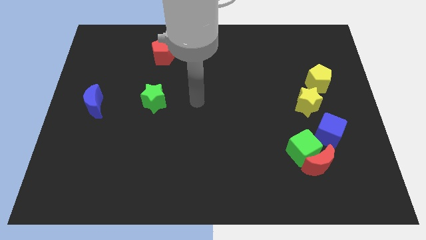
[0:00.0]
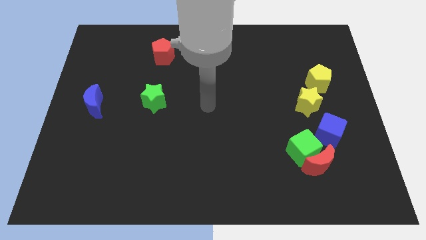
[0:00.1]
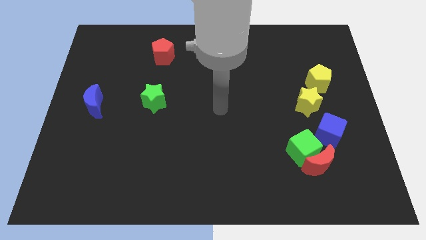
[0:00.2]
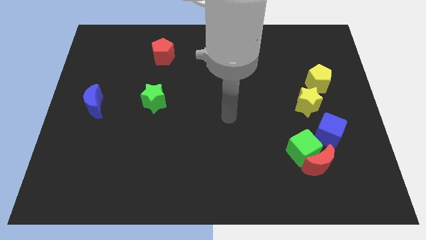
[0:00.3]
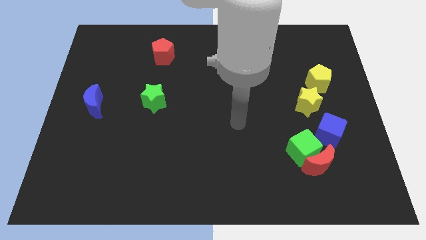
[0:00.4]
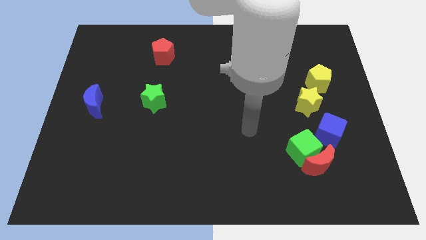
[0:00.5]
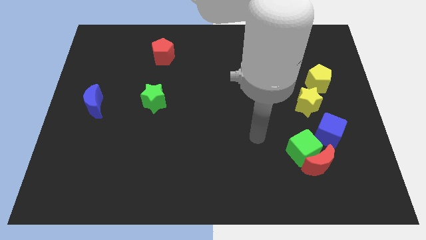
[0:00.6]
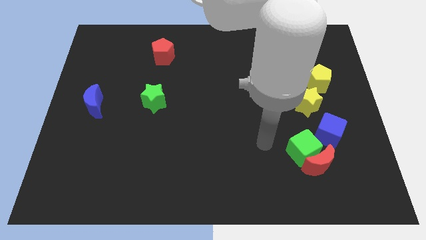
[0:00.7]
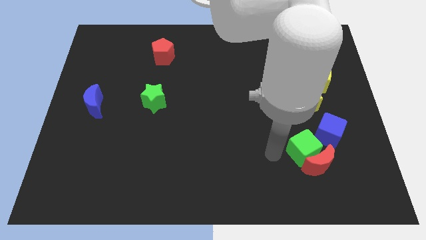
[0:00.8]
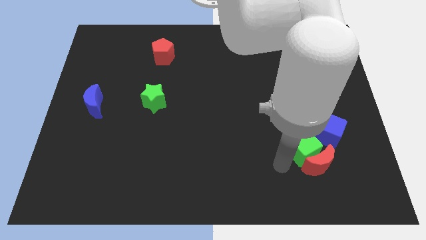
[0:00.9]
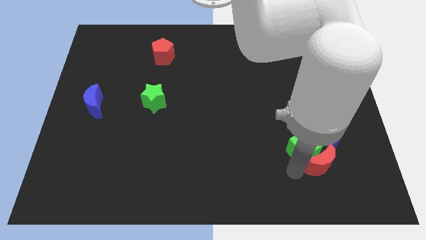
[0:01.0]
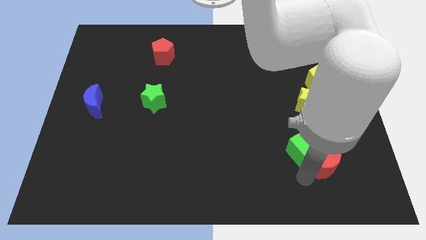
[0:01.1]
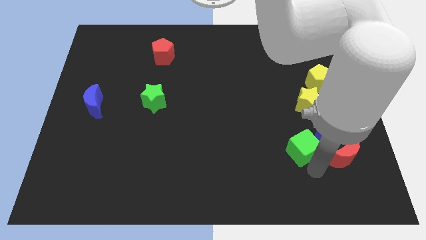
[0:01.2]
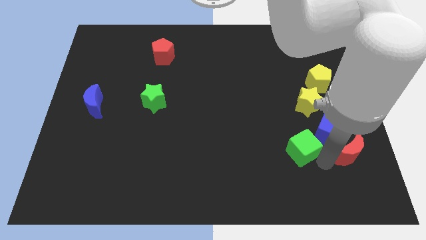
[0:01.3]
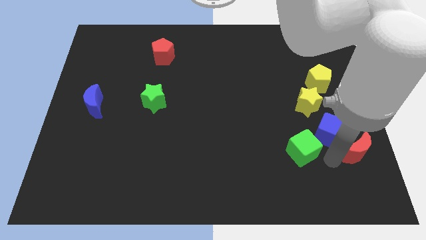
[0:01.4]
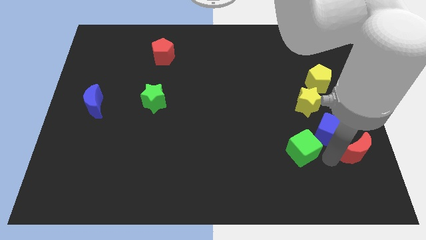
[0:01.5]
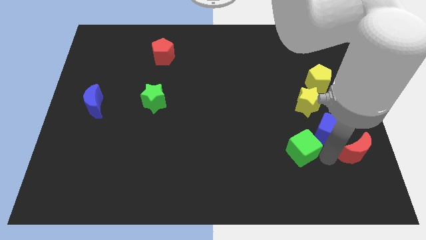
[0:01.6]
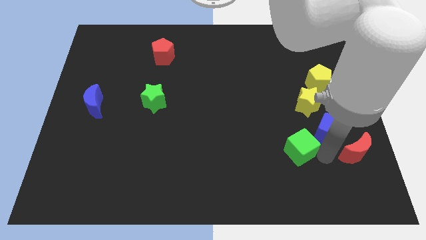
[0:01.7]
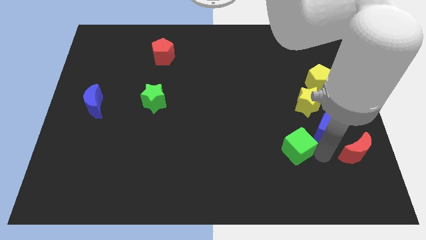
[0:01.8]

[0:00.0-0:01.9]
pull the green cube apart from the red moon and blue cube

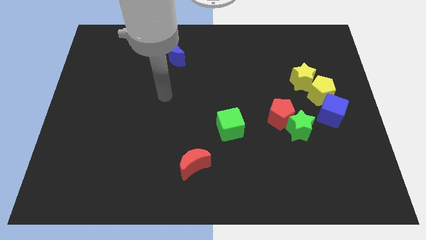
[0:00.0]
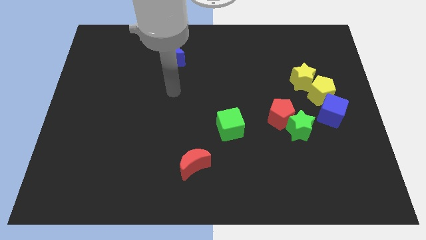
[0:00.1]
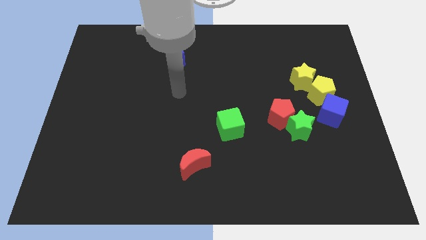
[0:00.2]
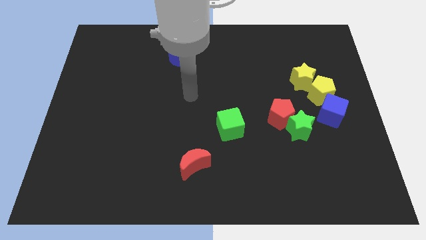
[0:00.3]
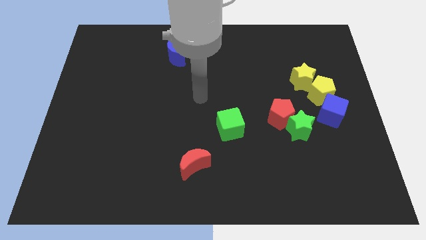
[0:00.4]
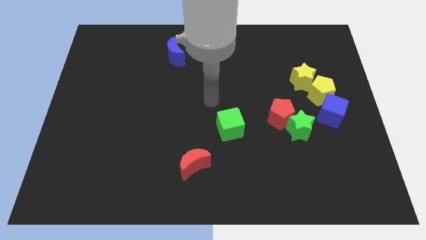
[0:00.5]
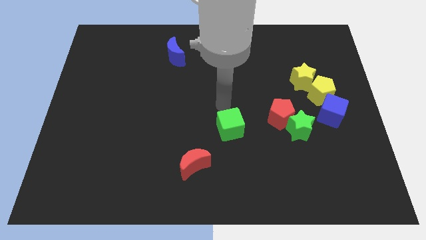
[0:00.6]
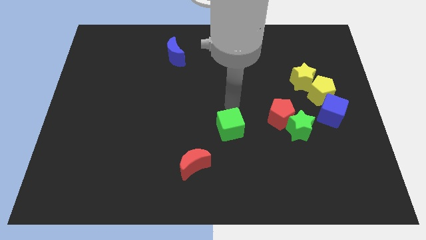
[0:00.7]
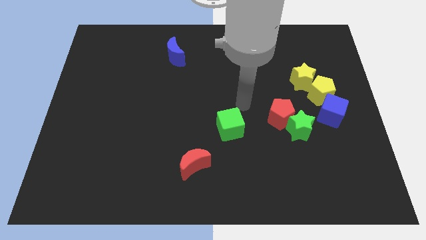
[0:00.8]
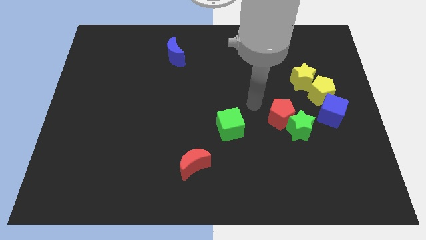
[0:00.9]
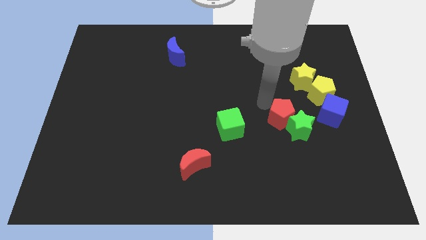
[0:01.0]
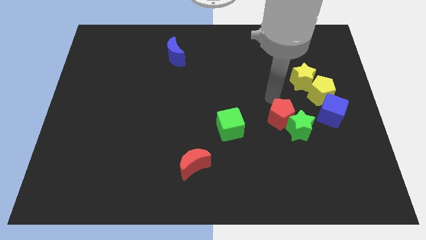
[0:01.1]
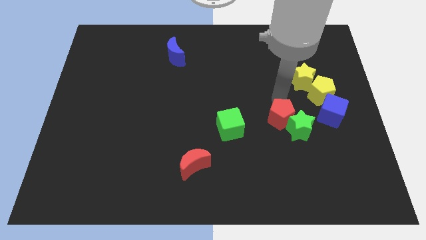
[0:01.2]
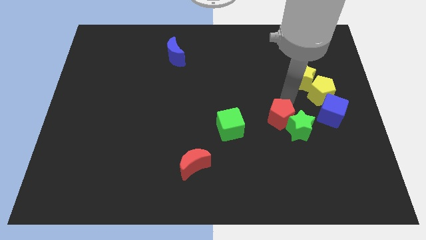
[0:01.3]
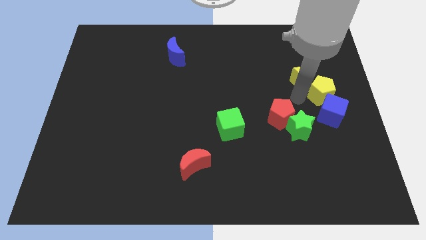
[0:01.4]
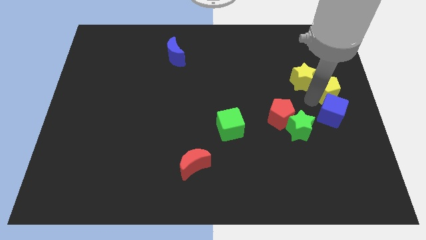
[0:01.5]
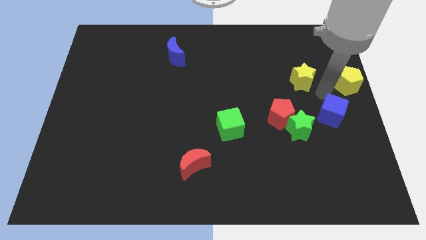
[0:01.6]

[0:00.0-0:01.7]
pull the yellow star apart from the yellow pentagon

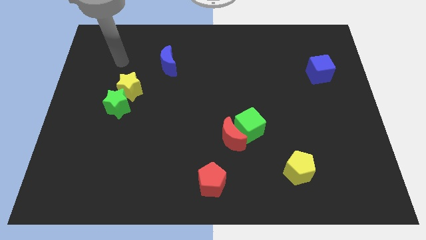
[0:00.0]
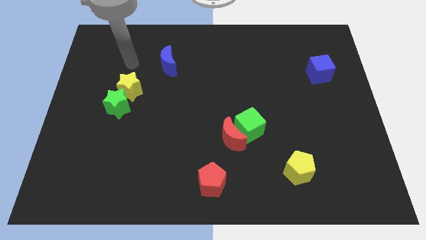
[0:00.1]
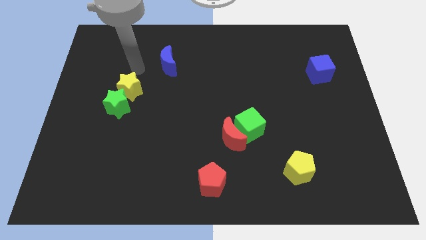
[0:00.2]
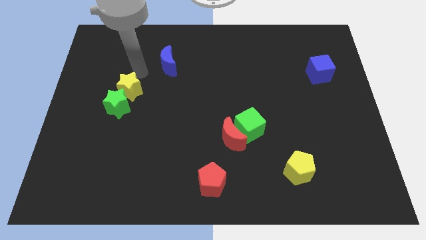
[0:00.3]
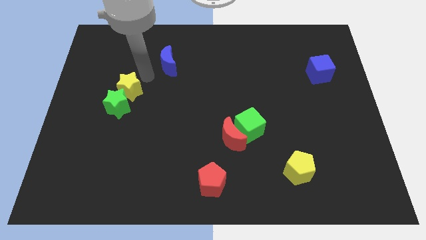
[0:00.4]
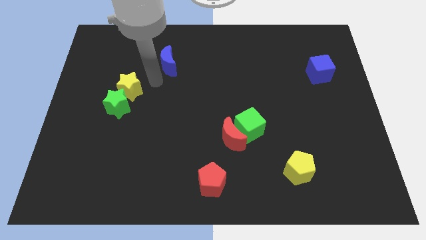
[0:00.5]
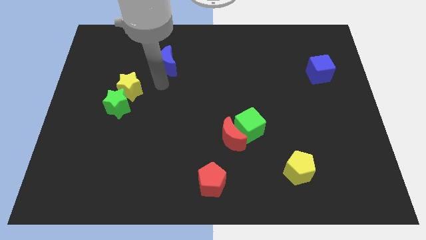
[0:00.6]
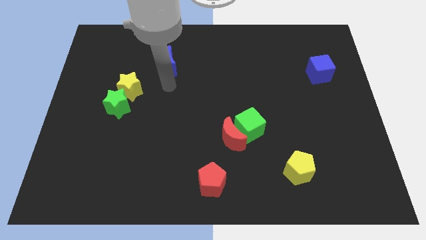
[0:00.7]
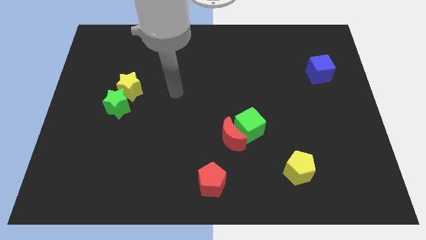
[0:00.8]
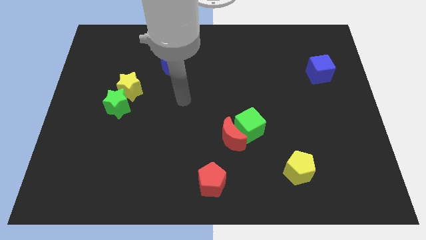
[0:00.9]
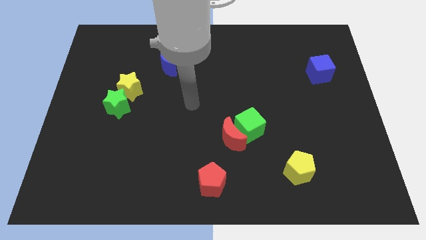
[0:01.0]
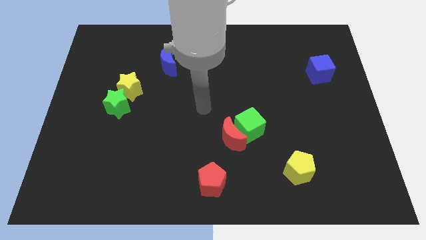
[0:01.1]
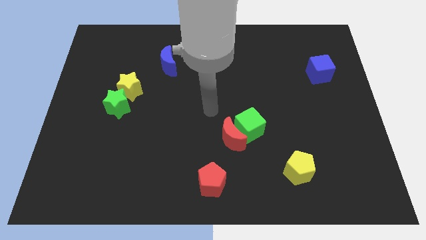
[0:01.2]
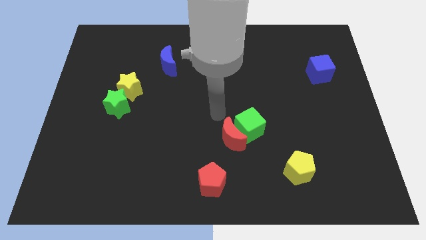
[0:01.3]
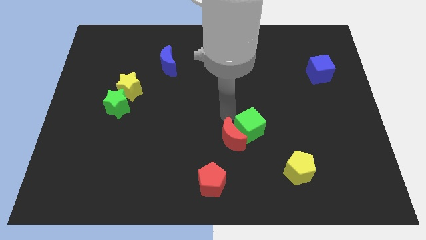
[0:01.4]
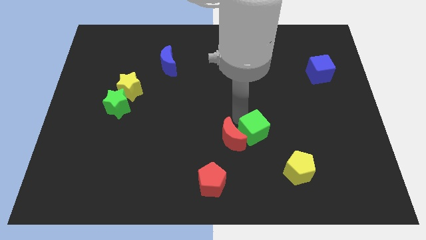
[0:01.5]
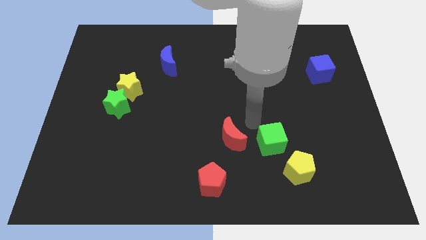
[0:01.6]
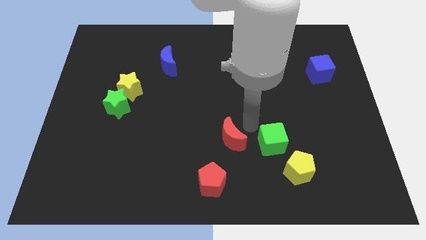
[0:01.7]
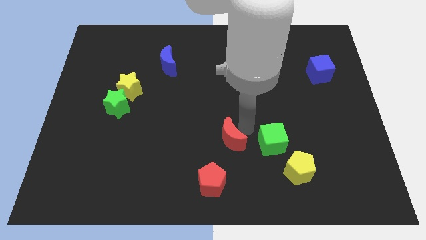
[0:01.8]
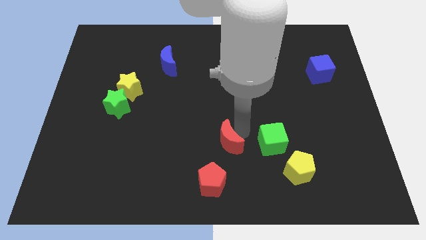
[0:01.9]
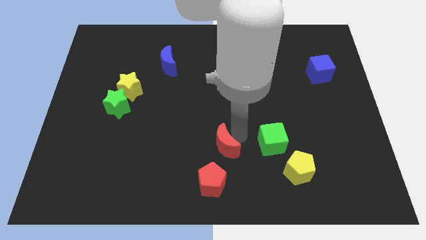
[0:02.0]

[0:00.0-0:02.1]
pull the red moon apart from the green cube

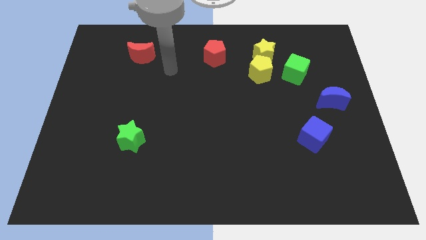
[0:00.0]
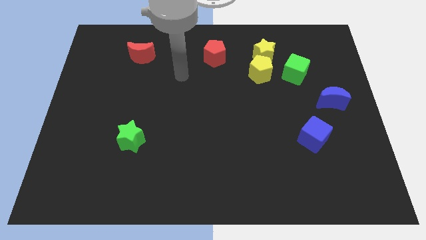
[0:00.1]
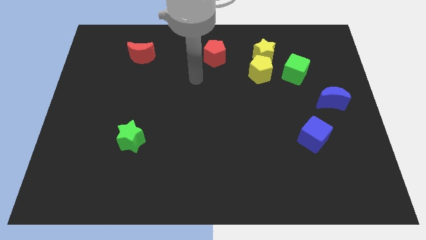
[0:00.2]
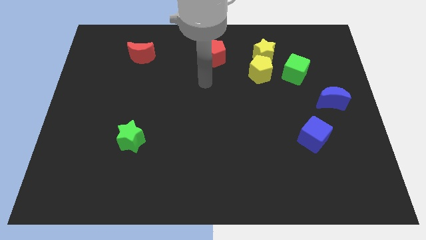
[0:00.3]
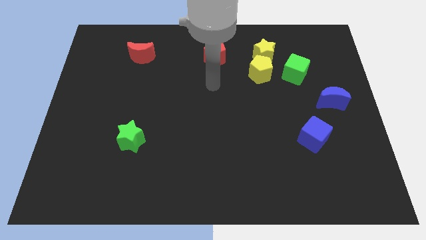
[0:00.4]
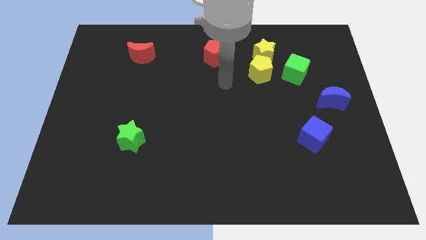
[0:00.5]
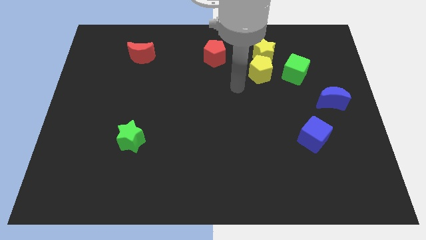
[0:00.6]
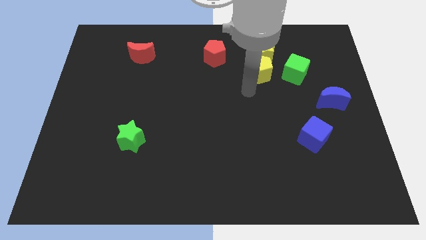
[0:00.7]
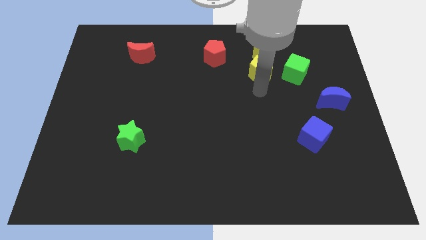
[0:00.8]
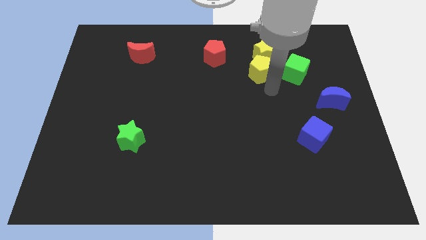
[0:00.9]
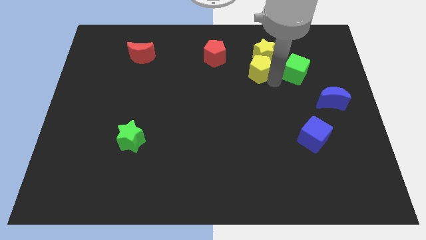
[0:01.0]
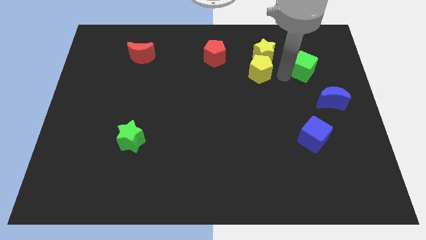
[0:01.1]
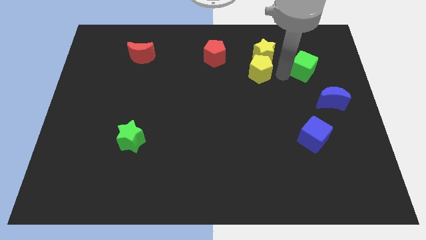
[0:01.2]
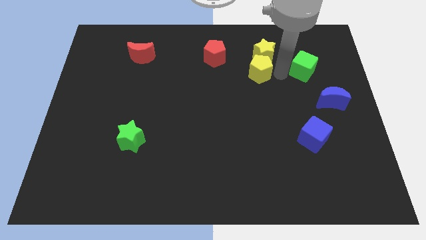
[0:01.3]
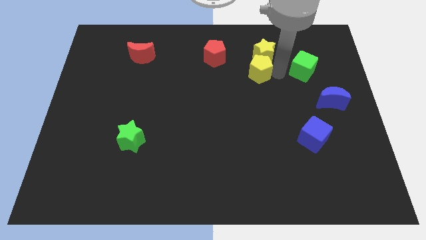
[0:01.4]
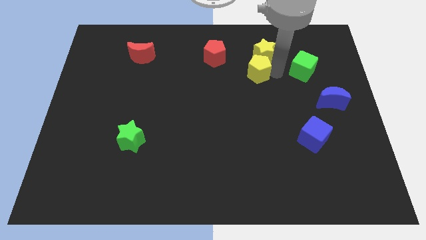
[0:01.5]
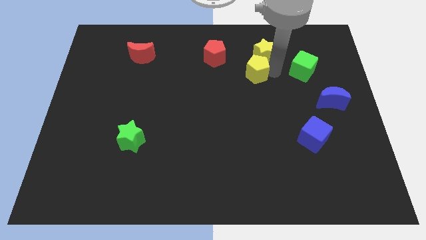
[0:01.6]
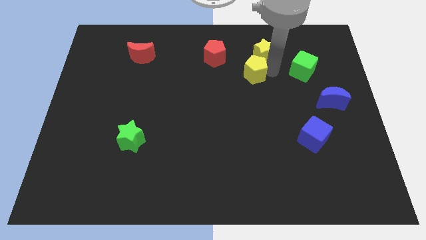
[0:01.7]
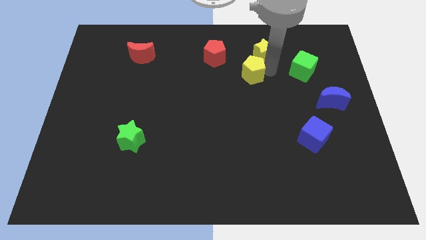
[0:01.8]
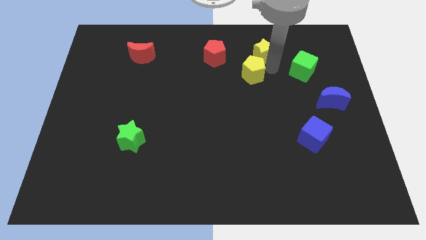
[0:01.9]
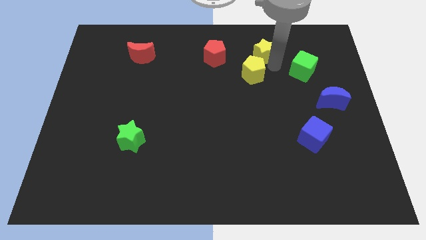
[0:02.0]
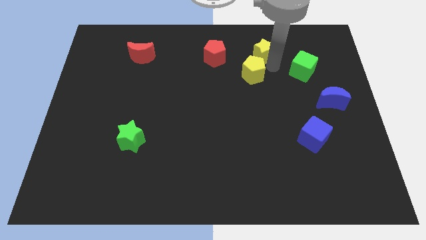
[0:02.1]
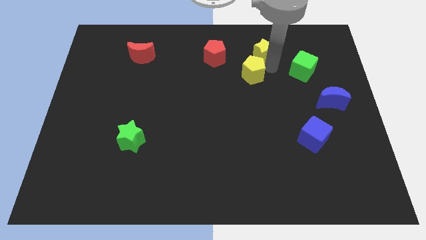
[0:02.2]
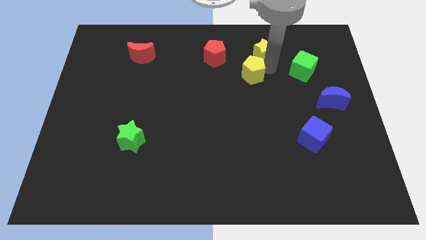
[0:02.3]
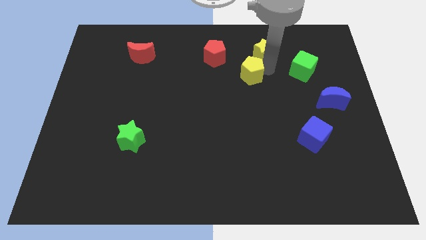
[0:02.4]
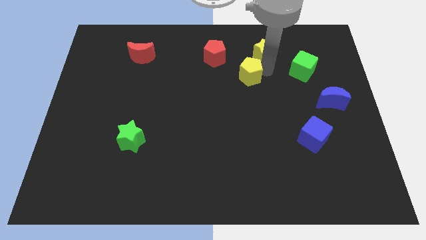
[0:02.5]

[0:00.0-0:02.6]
pull the yellow pentagon apart from the yellow star and green cube

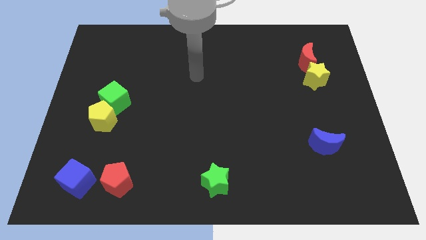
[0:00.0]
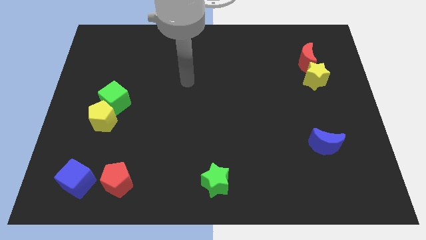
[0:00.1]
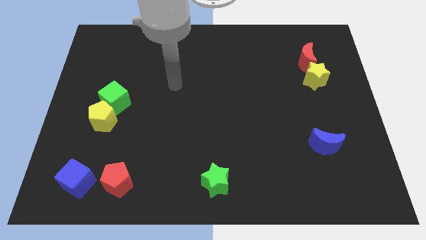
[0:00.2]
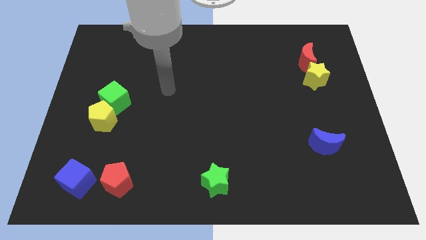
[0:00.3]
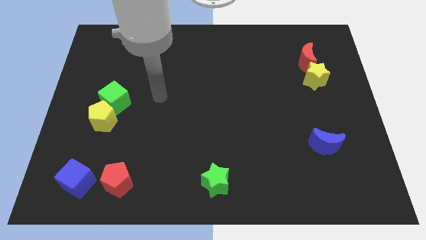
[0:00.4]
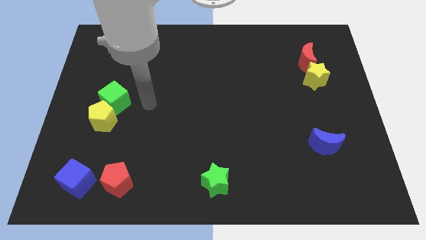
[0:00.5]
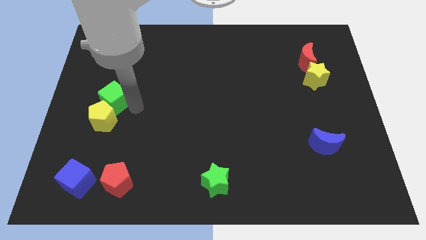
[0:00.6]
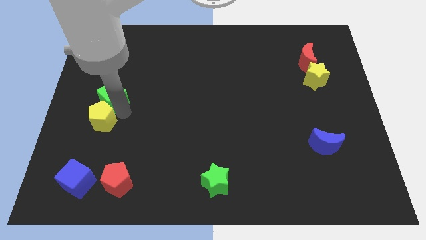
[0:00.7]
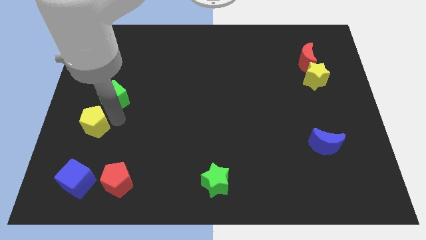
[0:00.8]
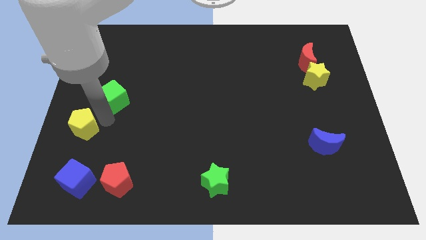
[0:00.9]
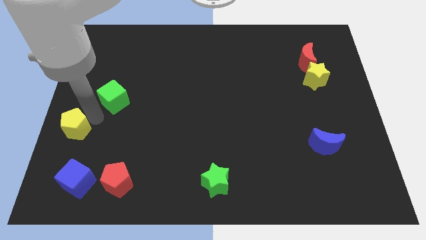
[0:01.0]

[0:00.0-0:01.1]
move the green cube away from the yellow pentagon
